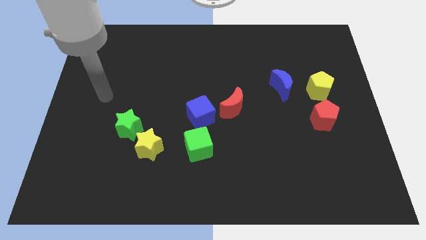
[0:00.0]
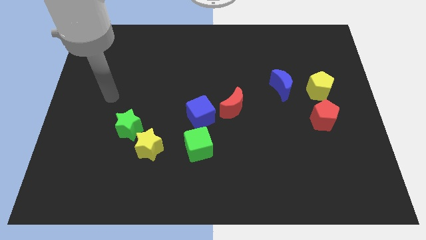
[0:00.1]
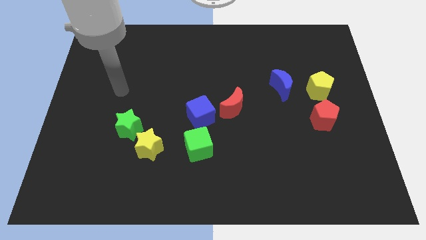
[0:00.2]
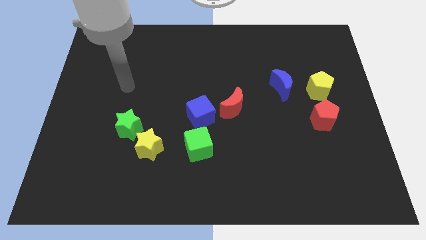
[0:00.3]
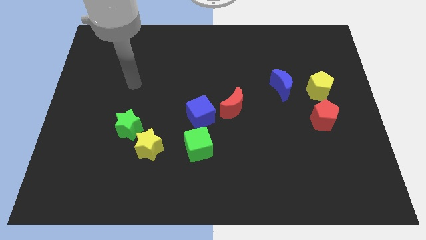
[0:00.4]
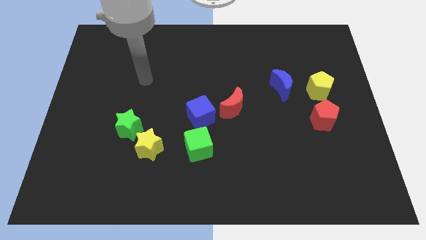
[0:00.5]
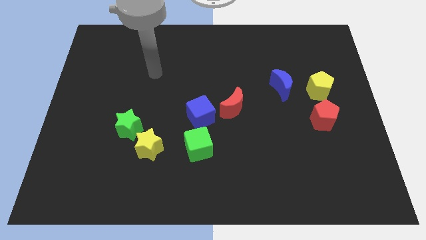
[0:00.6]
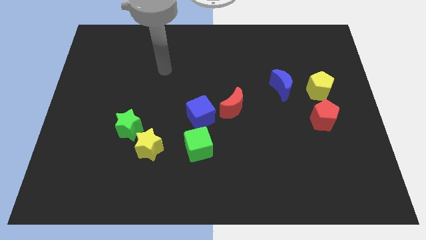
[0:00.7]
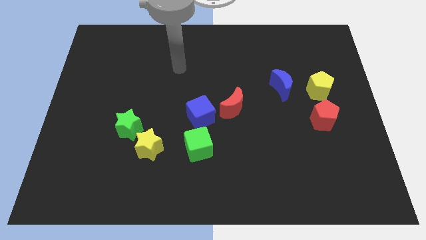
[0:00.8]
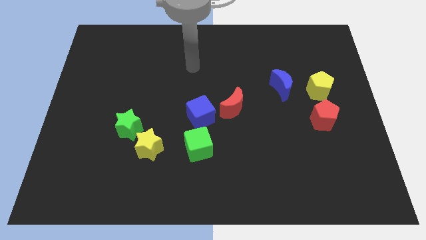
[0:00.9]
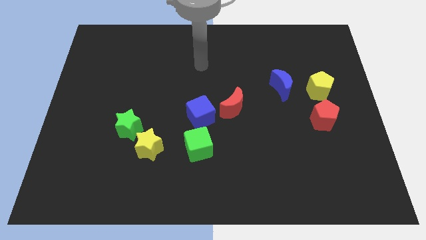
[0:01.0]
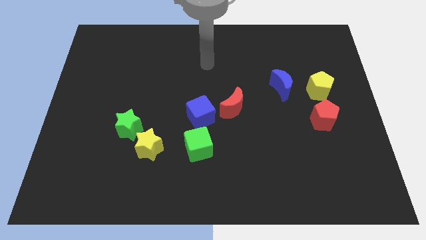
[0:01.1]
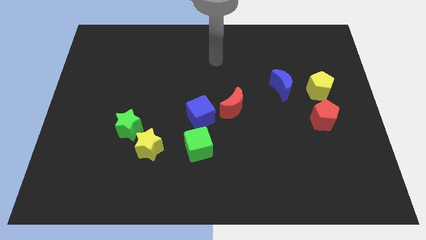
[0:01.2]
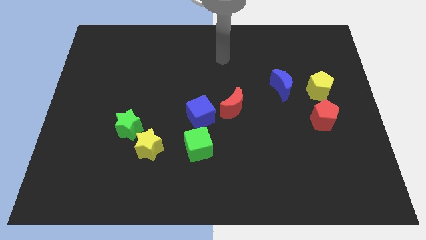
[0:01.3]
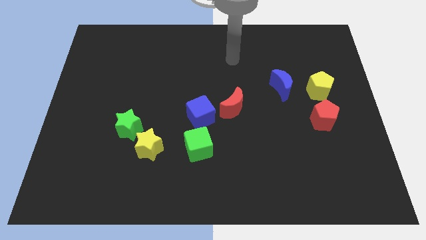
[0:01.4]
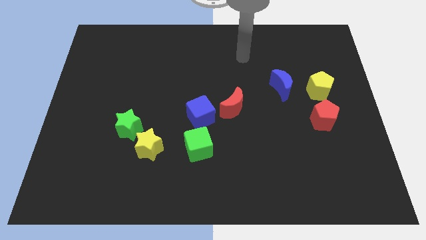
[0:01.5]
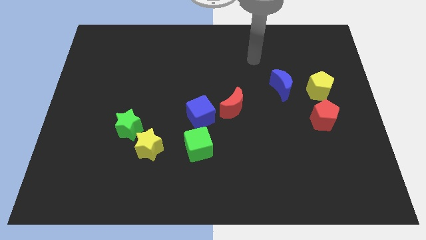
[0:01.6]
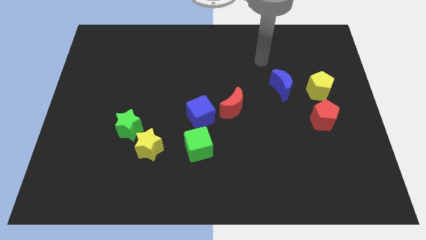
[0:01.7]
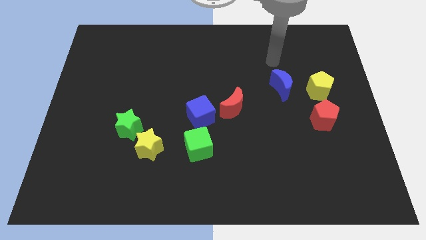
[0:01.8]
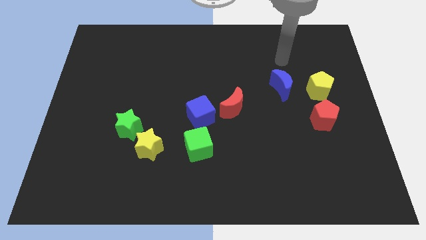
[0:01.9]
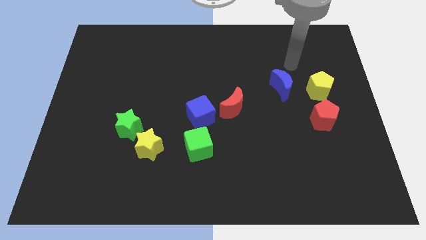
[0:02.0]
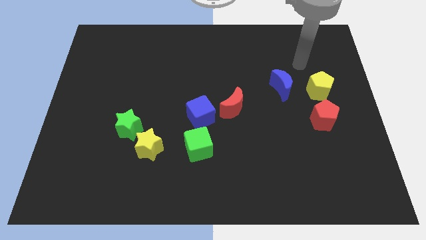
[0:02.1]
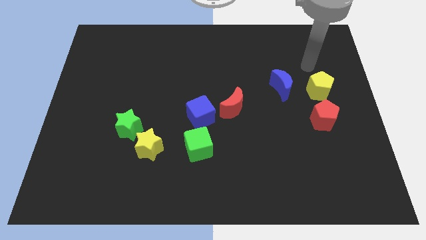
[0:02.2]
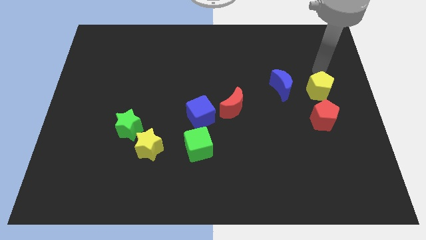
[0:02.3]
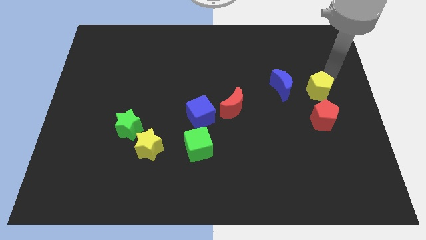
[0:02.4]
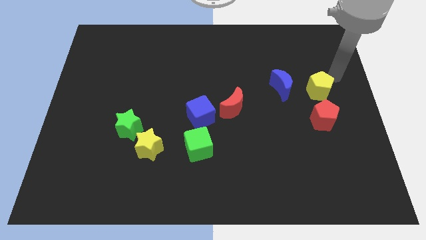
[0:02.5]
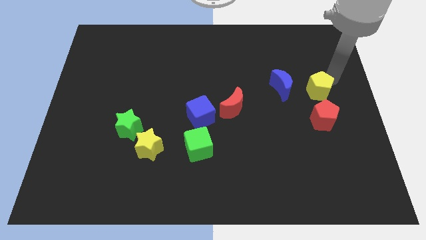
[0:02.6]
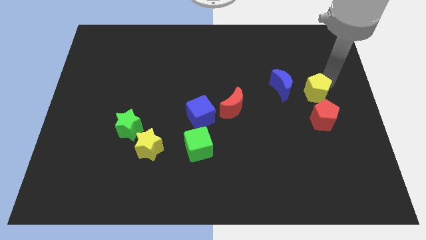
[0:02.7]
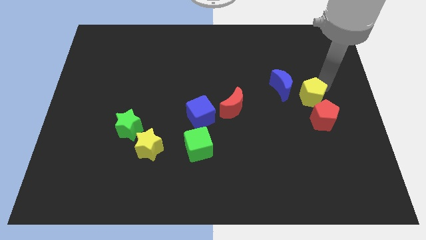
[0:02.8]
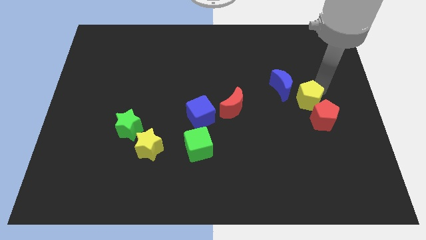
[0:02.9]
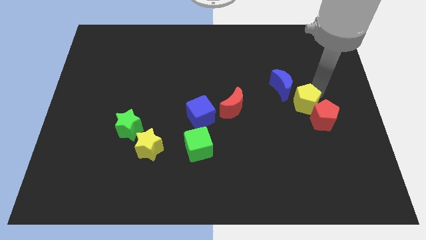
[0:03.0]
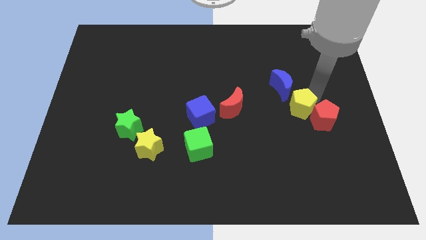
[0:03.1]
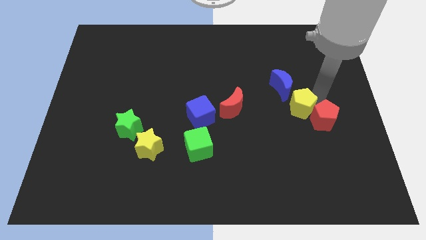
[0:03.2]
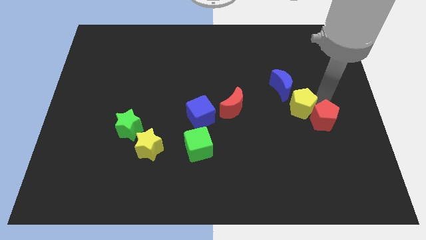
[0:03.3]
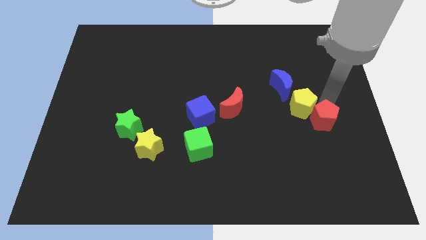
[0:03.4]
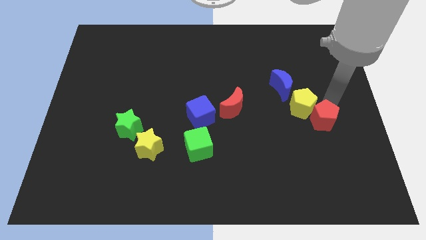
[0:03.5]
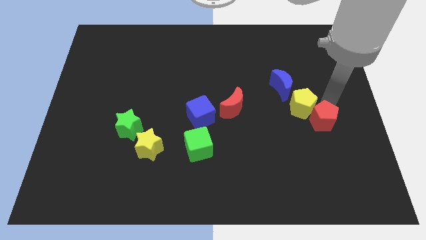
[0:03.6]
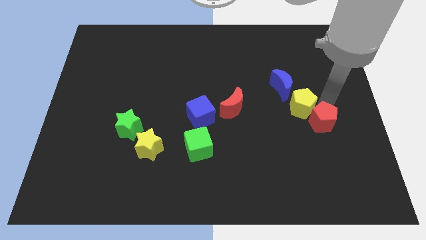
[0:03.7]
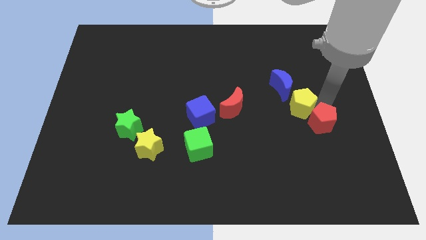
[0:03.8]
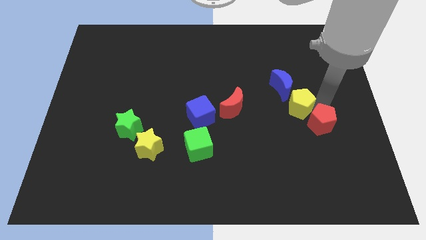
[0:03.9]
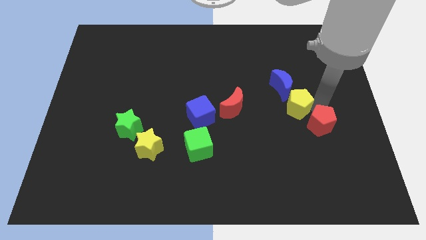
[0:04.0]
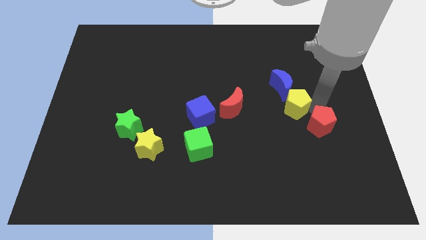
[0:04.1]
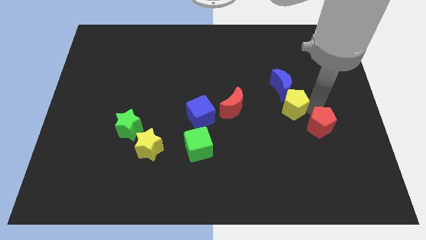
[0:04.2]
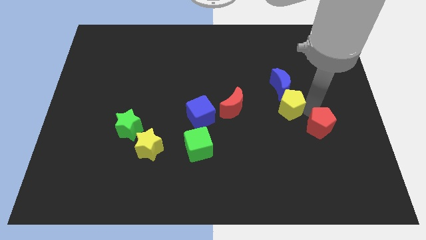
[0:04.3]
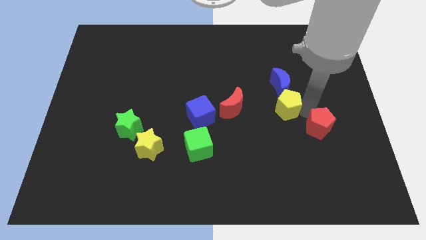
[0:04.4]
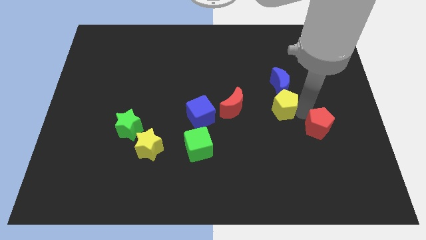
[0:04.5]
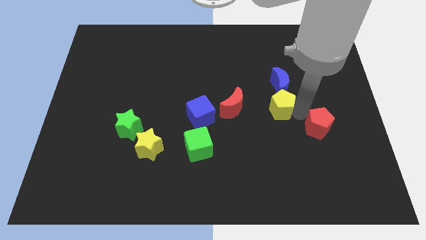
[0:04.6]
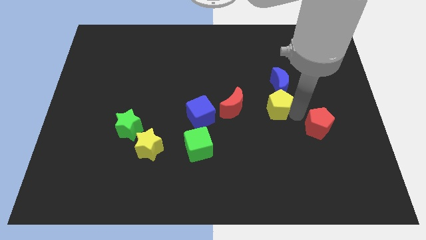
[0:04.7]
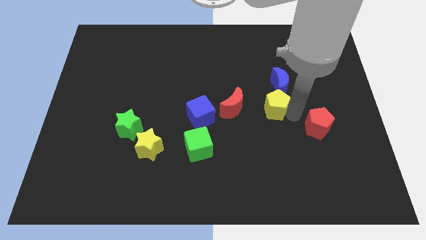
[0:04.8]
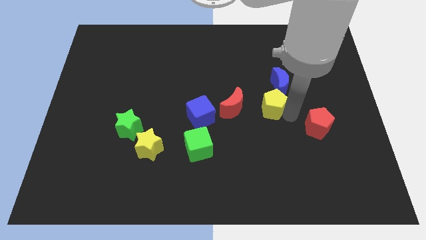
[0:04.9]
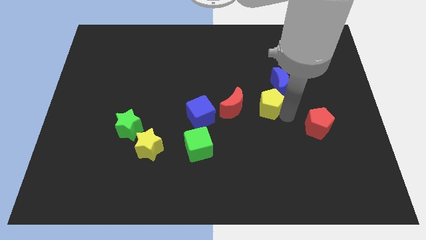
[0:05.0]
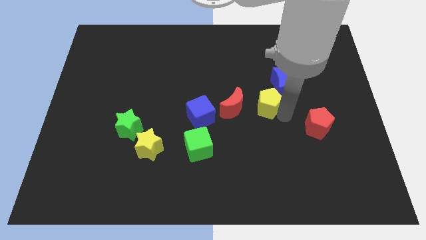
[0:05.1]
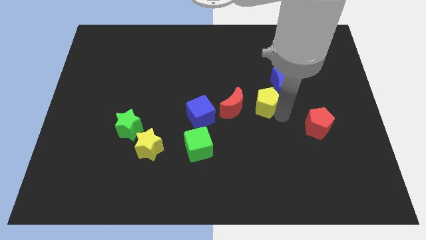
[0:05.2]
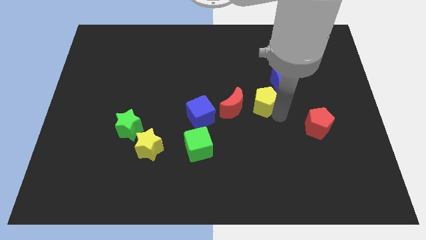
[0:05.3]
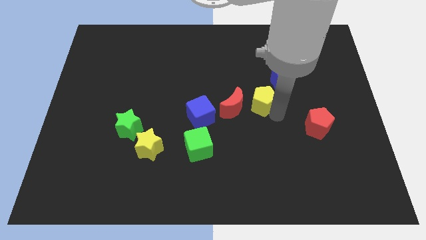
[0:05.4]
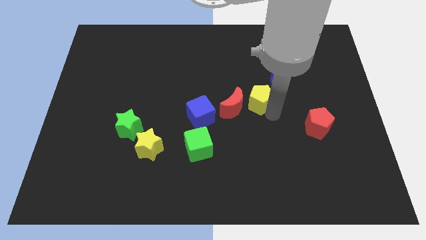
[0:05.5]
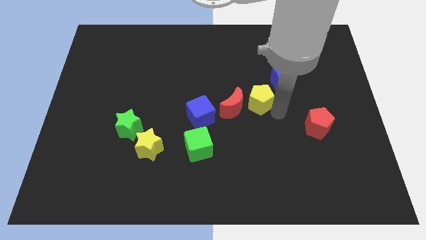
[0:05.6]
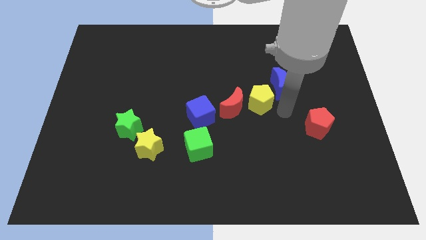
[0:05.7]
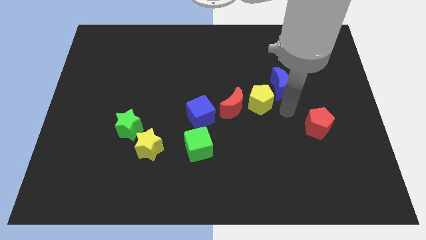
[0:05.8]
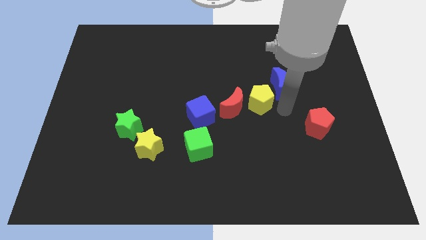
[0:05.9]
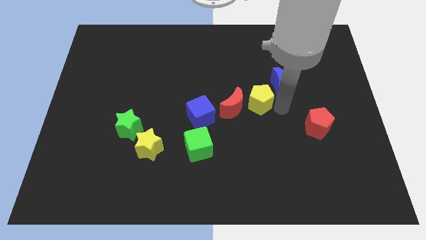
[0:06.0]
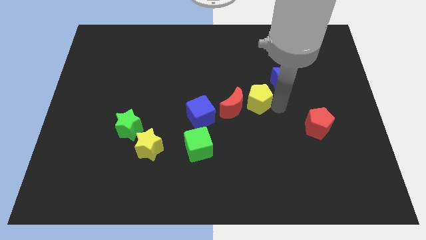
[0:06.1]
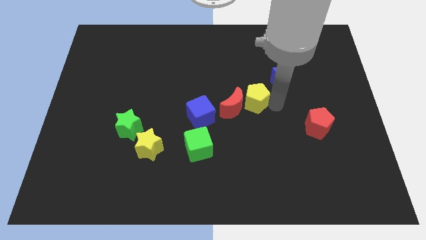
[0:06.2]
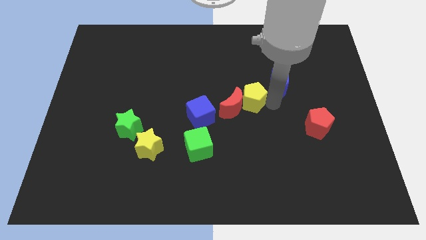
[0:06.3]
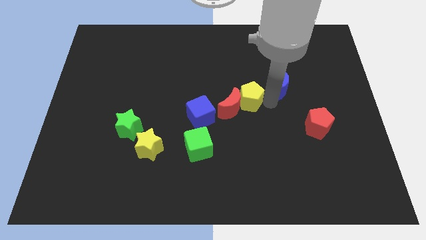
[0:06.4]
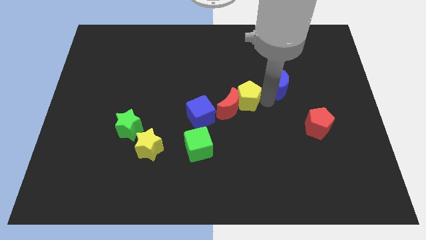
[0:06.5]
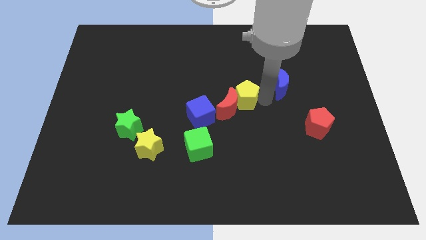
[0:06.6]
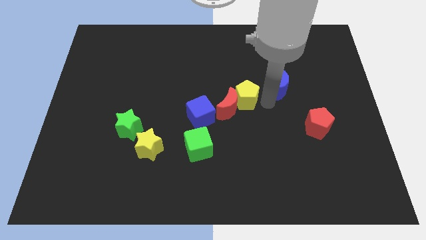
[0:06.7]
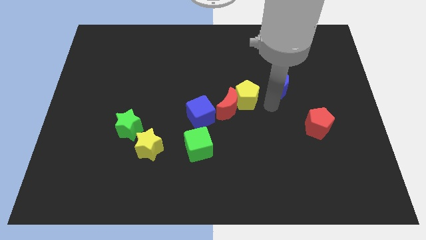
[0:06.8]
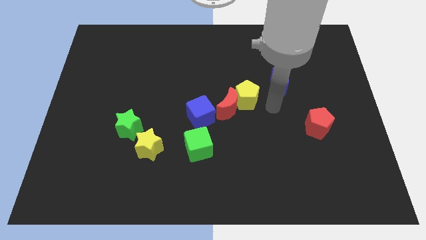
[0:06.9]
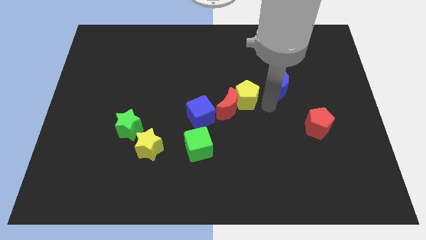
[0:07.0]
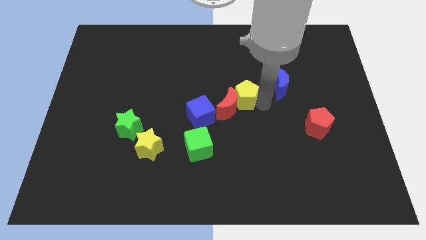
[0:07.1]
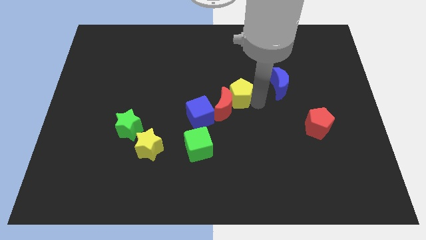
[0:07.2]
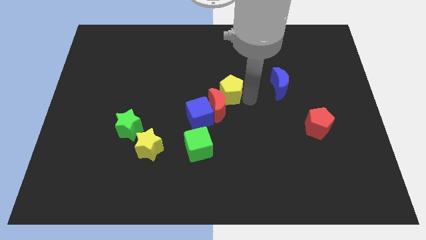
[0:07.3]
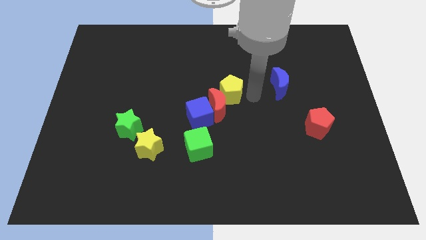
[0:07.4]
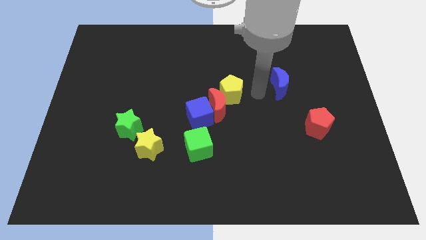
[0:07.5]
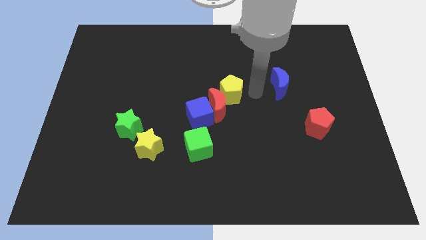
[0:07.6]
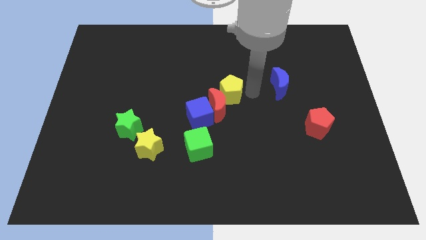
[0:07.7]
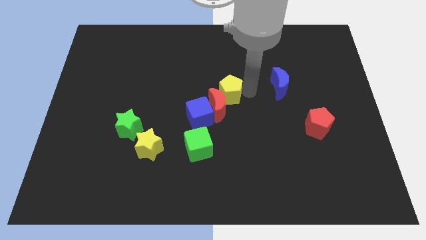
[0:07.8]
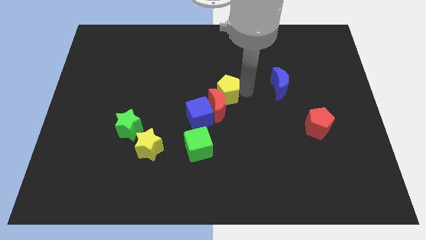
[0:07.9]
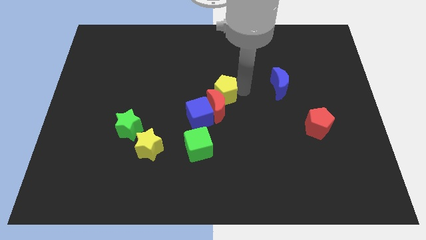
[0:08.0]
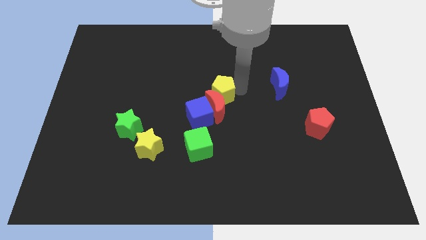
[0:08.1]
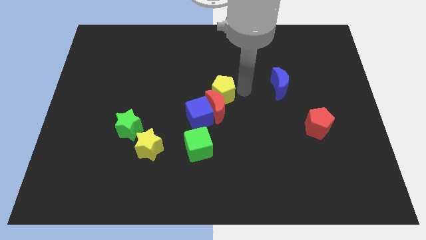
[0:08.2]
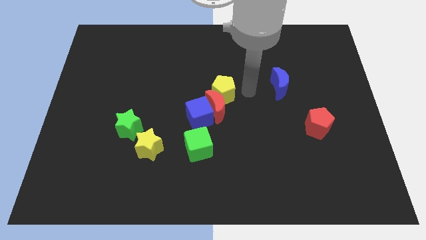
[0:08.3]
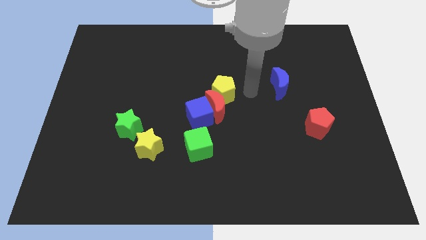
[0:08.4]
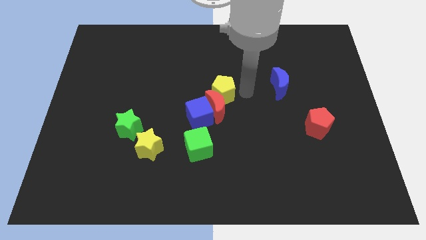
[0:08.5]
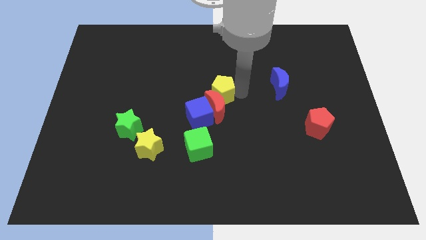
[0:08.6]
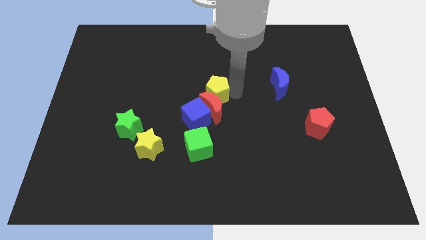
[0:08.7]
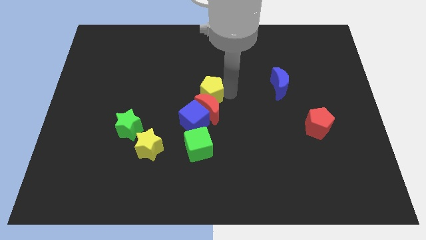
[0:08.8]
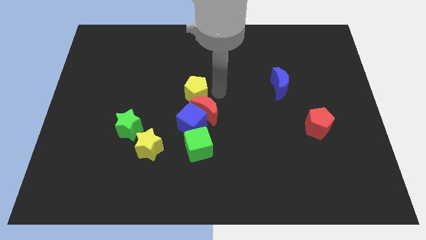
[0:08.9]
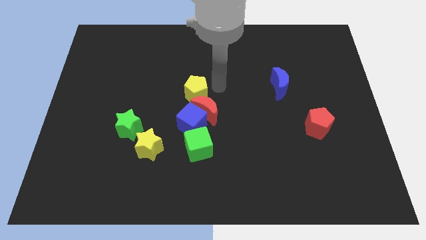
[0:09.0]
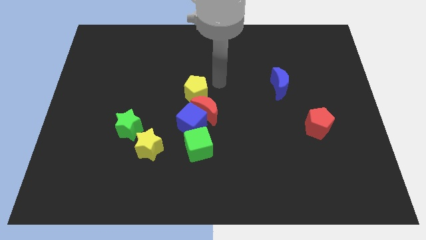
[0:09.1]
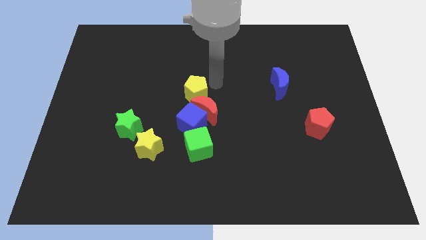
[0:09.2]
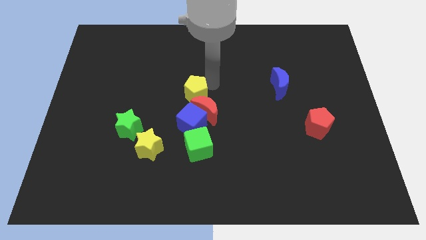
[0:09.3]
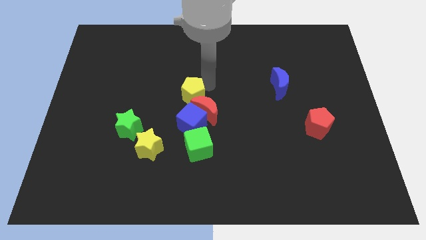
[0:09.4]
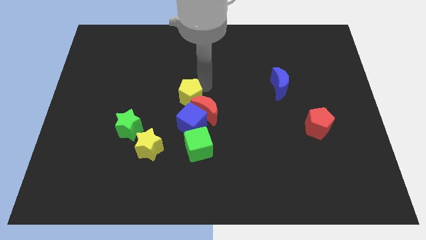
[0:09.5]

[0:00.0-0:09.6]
push the yellow pentagon to the left side of the red moon
